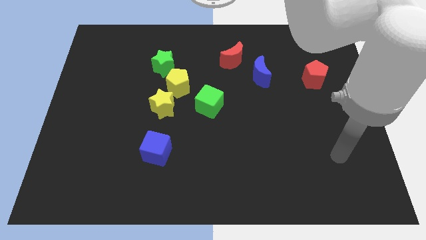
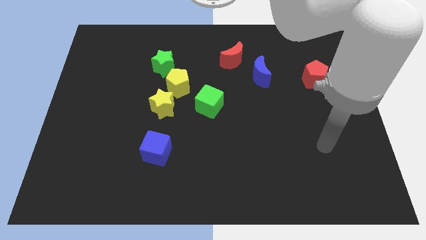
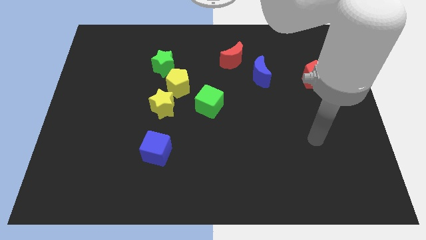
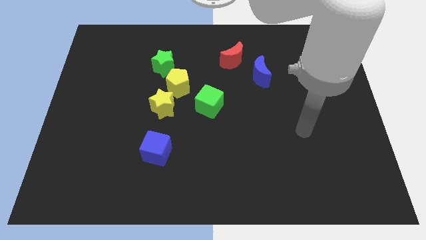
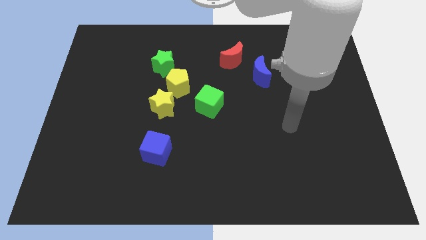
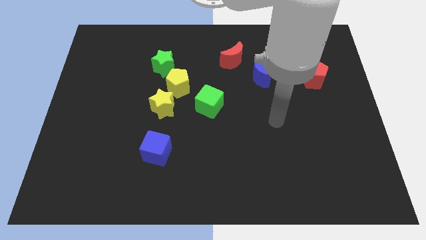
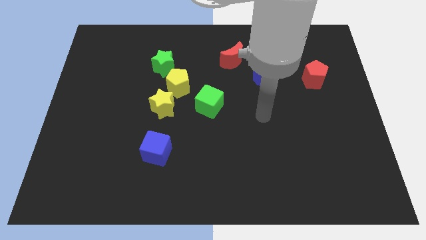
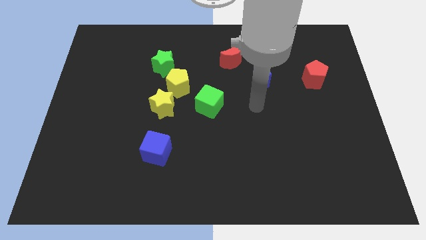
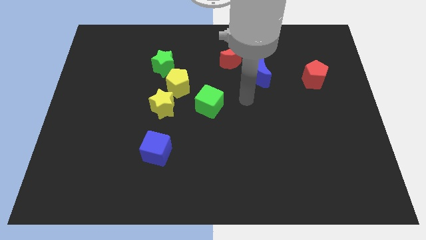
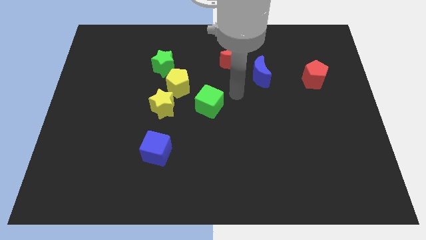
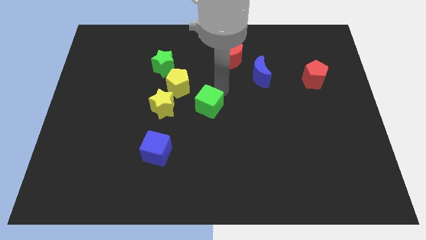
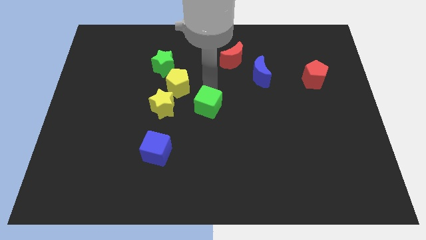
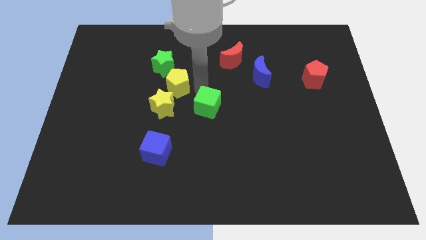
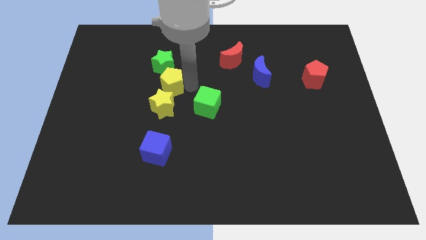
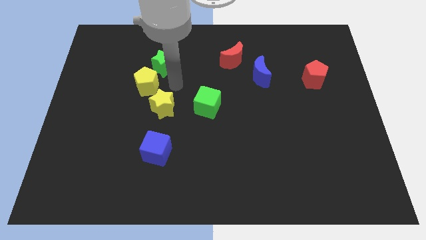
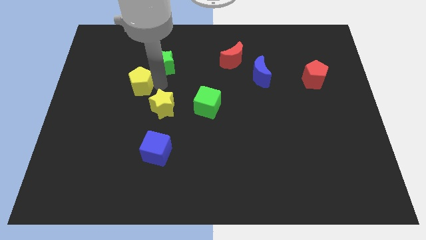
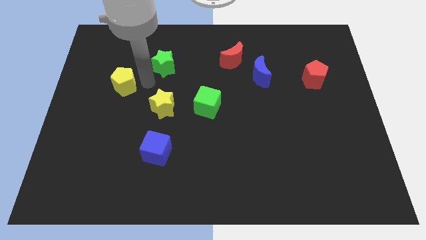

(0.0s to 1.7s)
separate the green star from the yellow pentagon

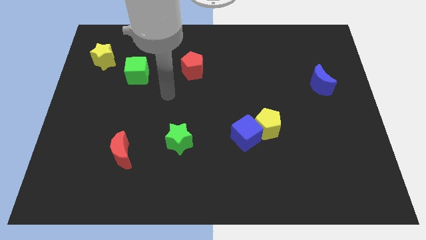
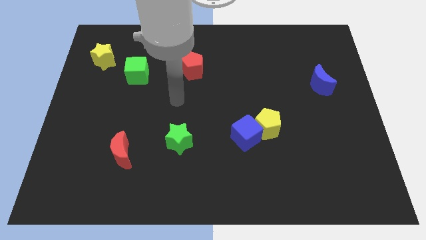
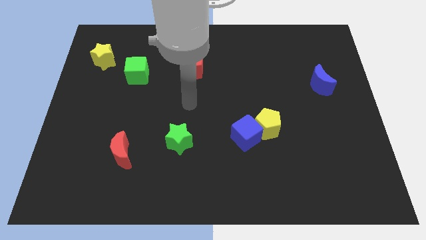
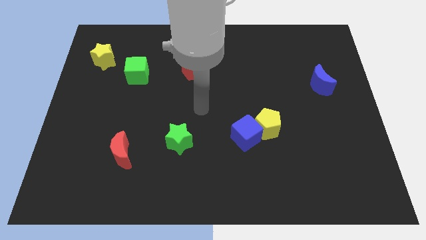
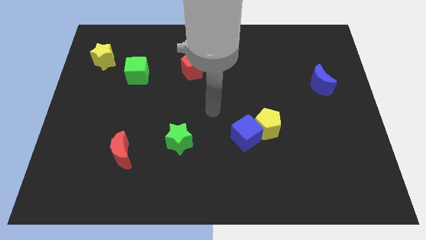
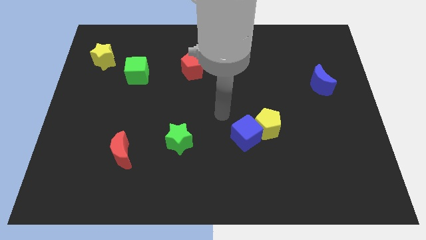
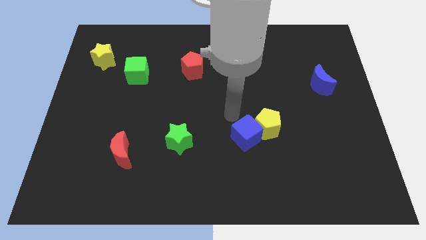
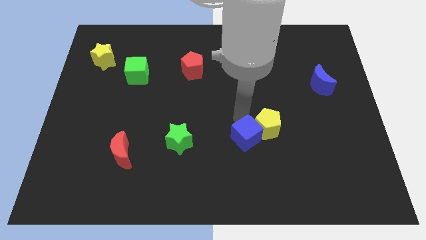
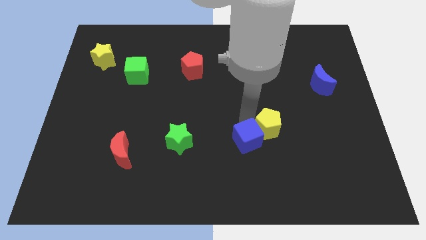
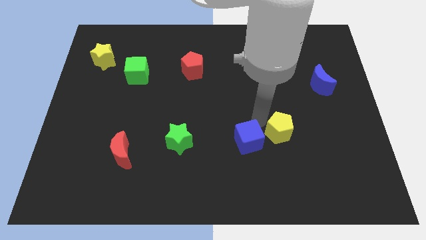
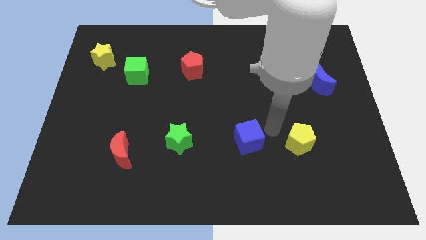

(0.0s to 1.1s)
move the blue cube away from the yellow pentagon

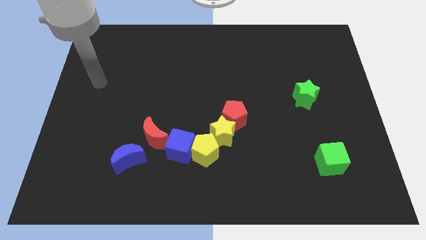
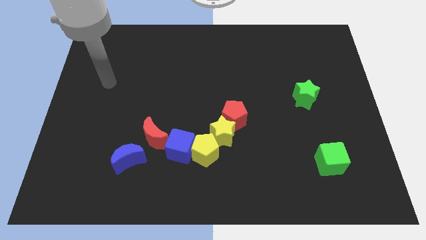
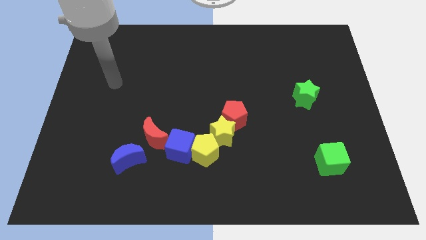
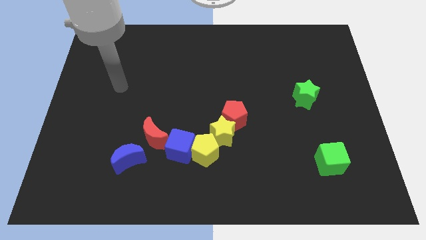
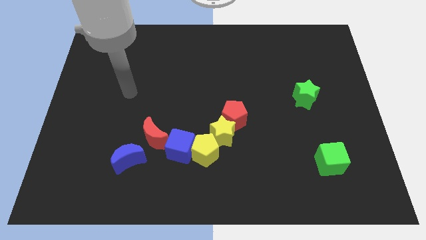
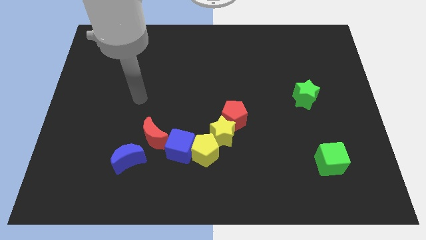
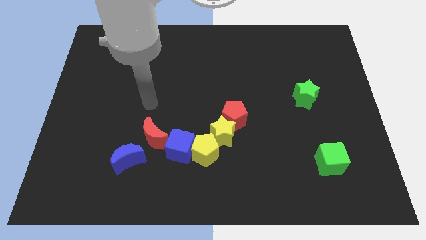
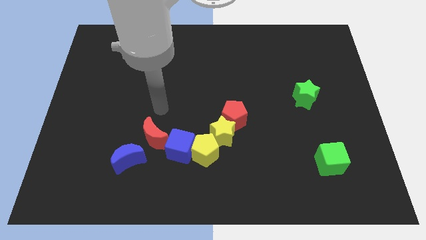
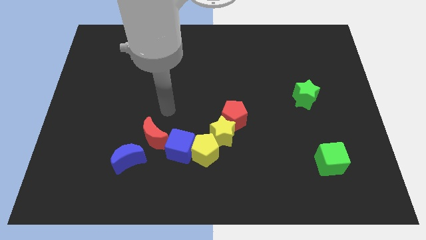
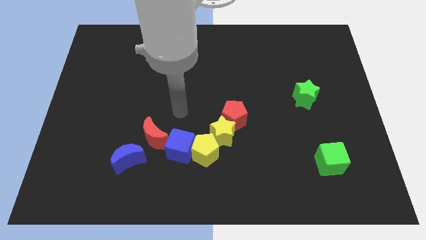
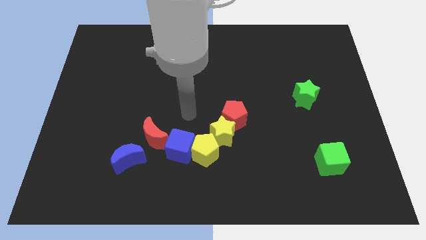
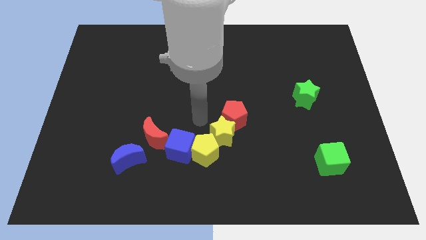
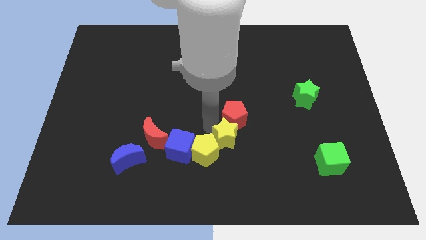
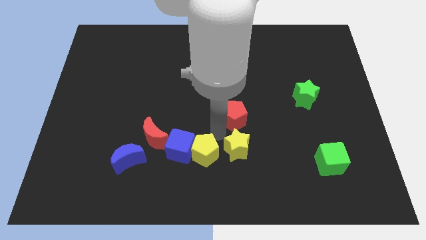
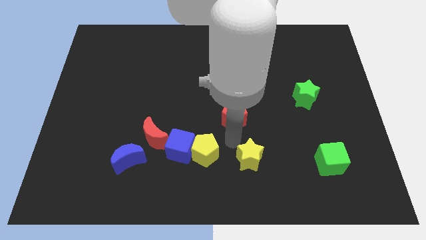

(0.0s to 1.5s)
separate the red pentagon from the yellow star

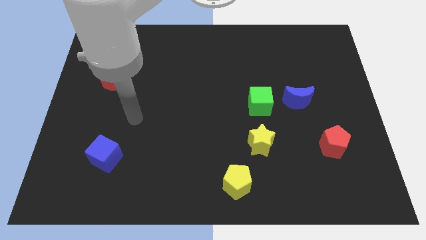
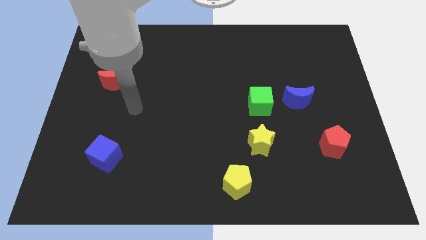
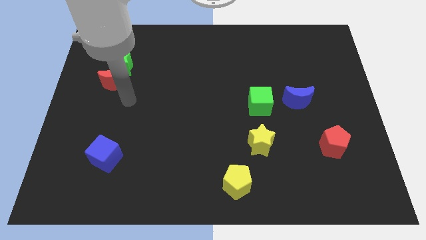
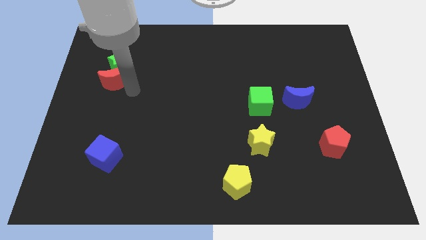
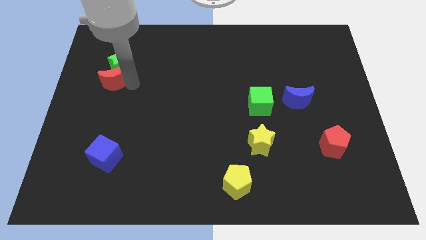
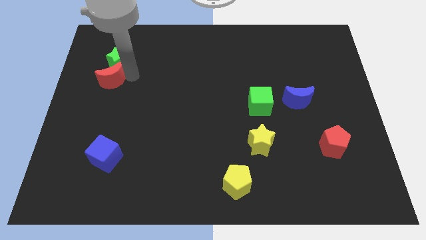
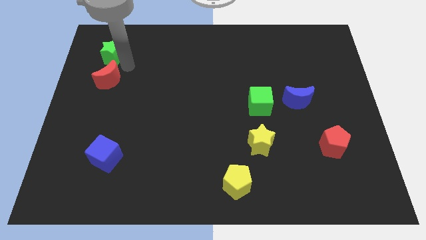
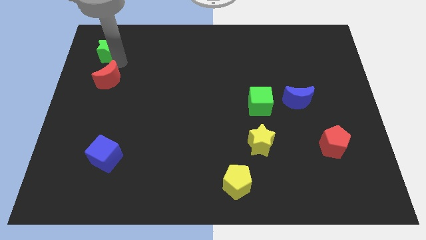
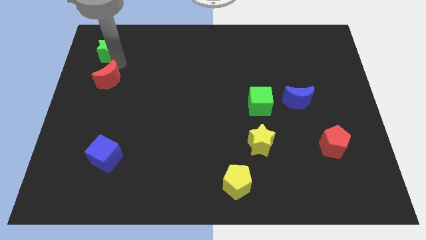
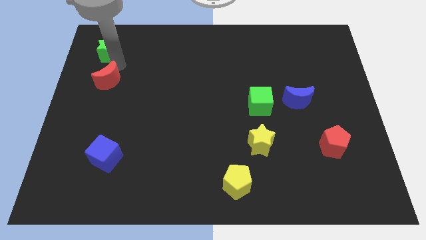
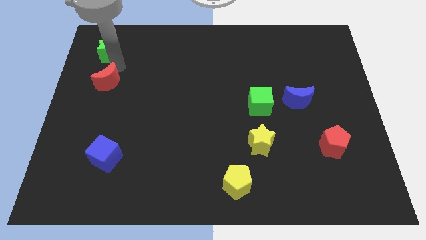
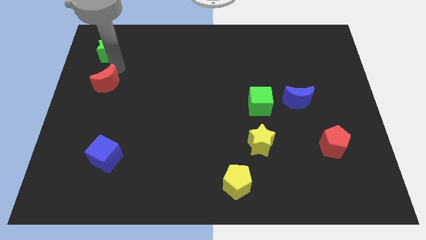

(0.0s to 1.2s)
move the red moon away from the green star

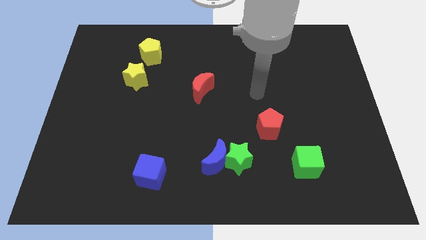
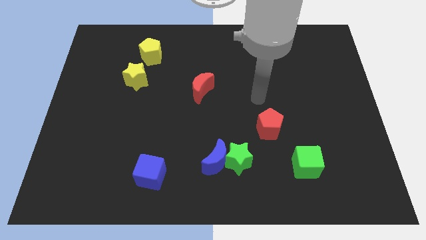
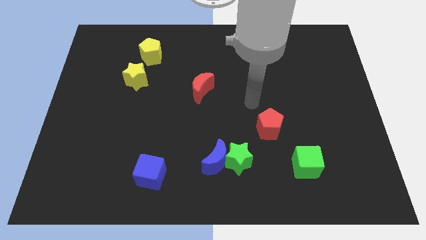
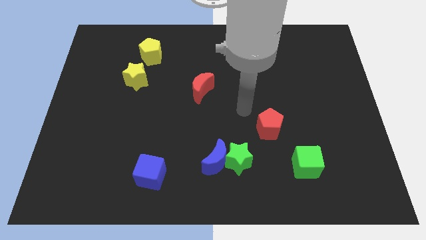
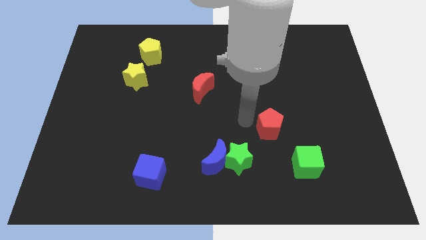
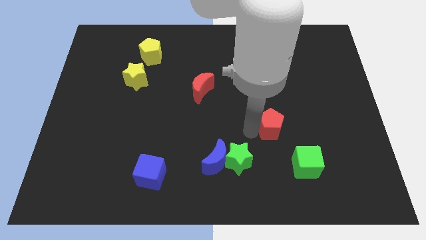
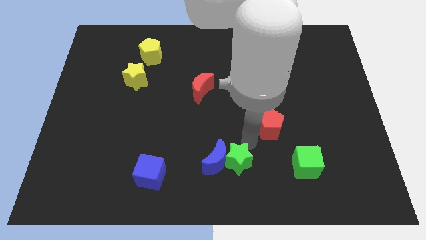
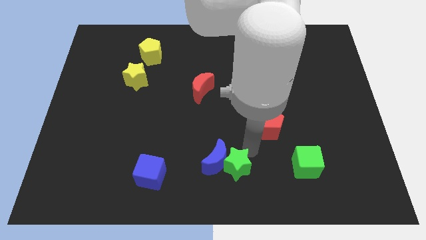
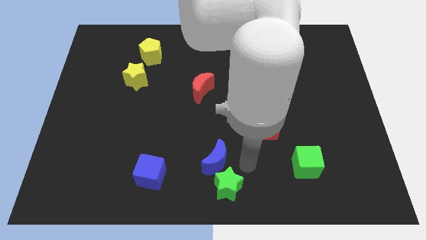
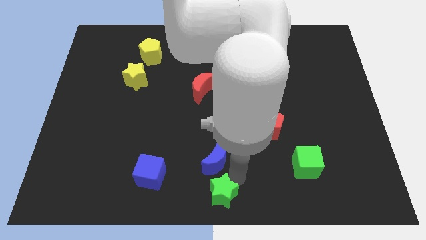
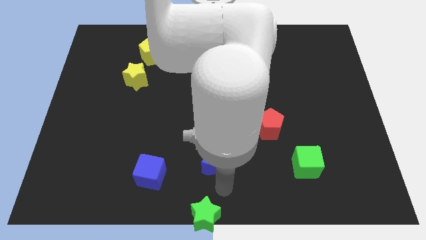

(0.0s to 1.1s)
move the blue moon away from the green star

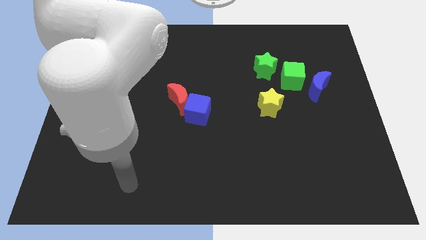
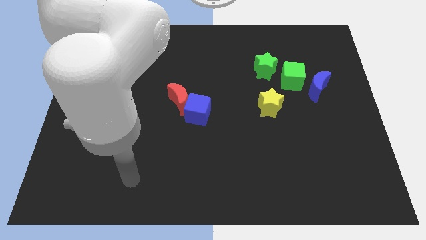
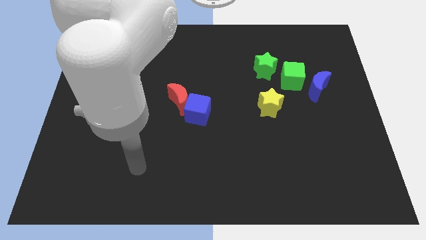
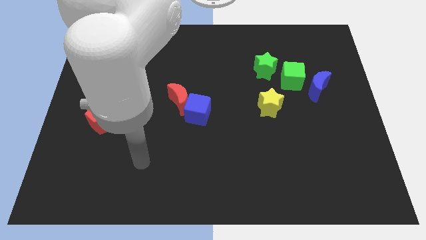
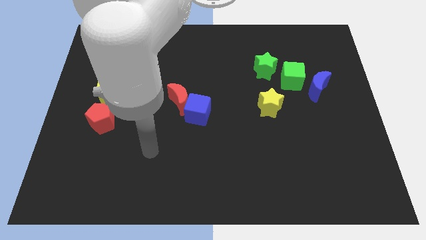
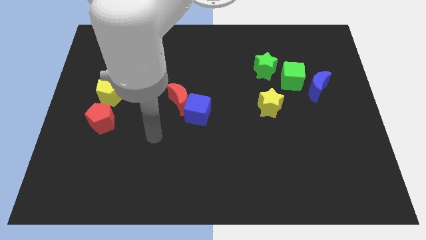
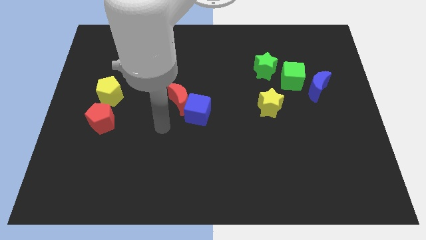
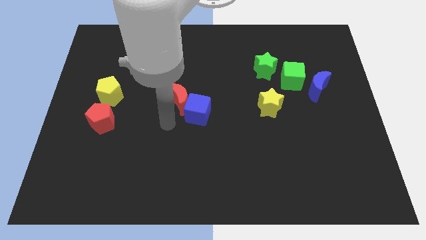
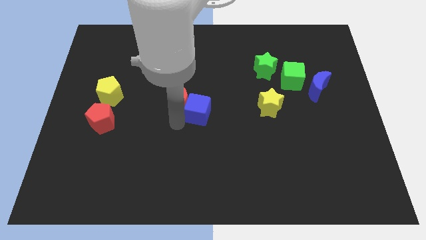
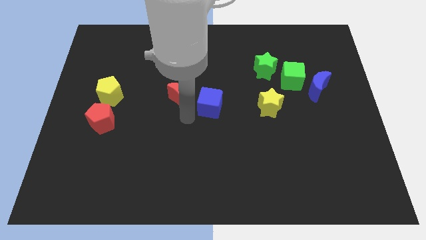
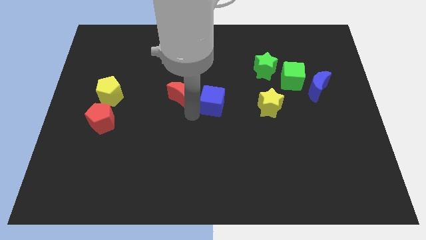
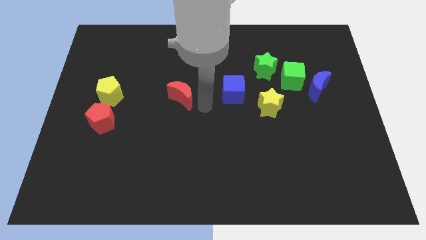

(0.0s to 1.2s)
pull the red moon apart from the blue cube

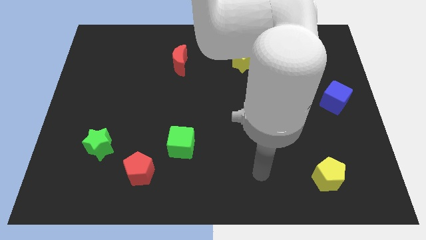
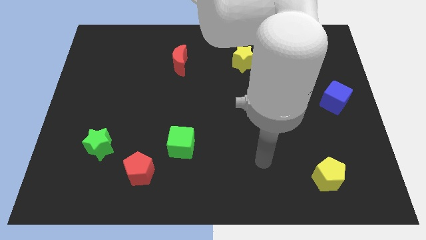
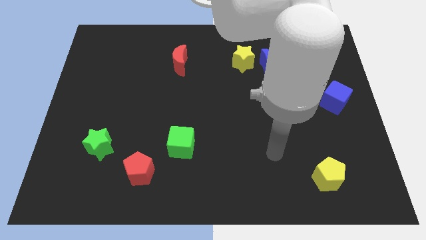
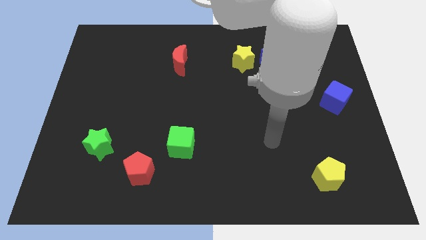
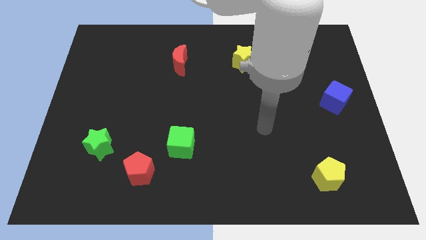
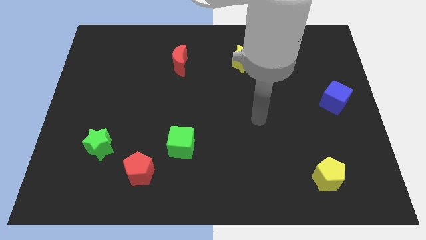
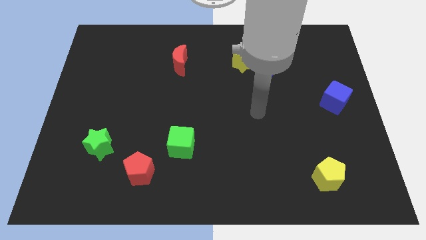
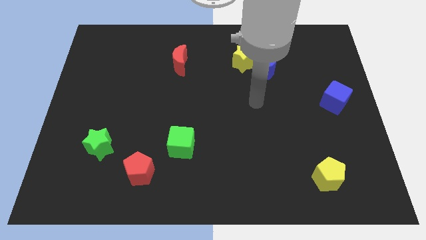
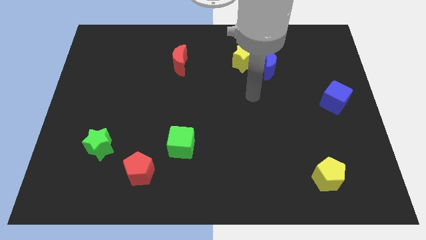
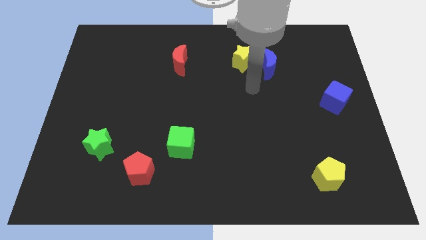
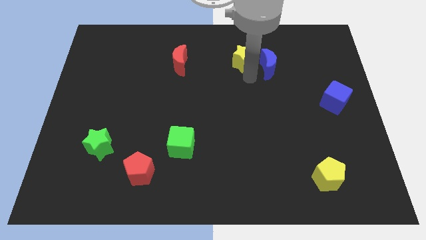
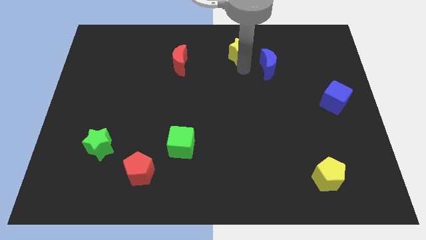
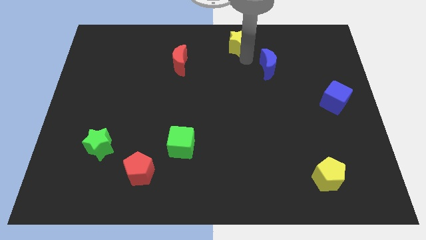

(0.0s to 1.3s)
separate the blue moon from the yellow star

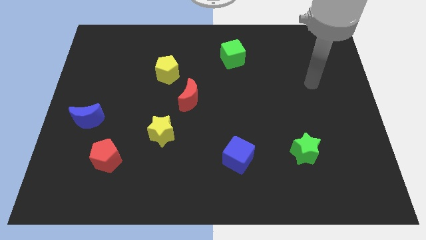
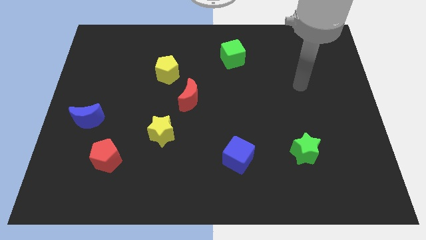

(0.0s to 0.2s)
separate the red moon from the yellow pentagon
